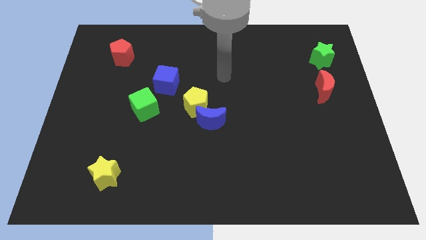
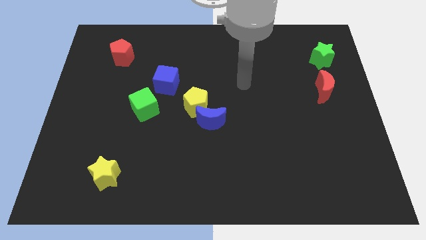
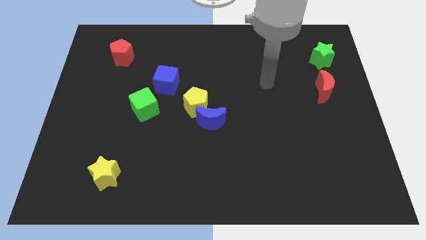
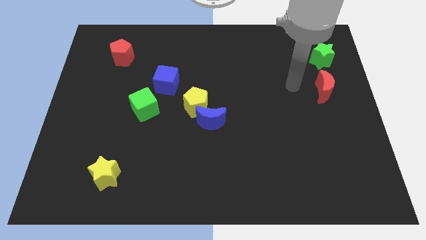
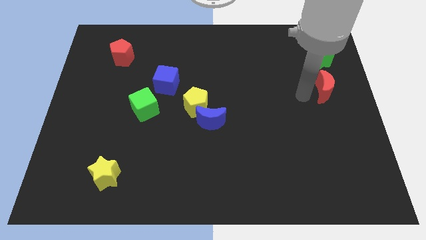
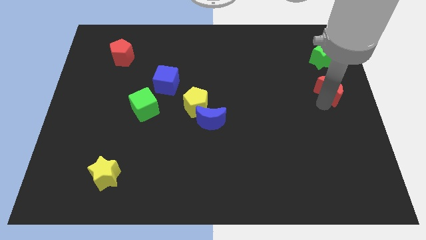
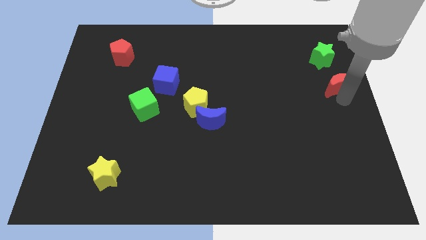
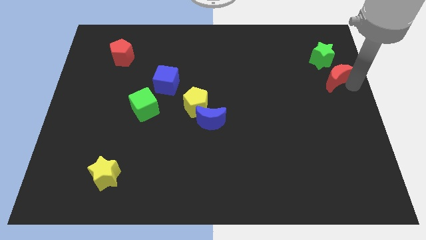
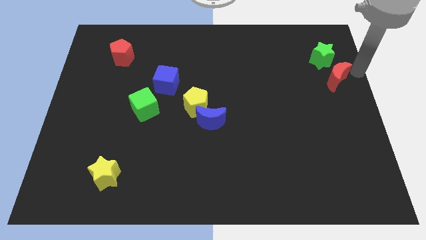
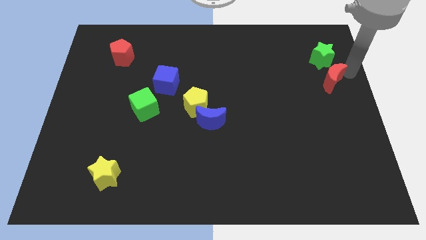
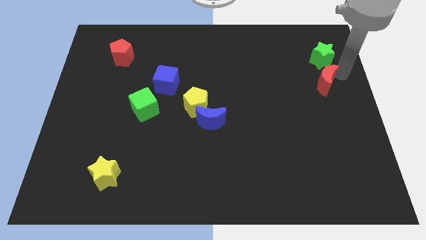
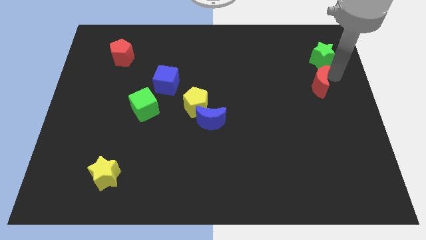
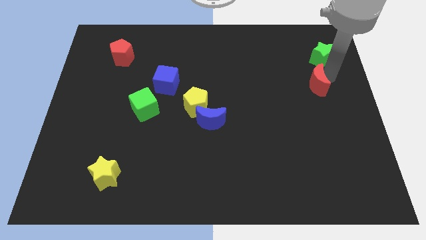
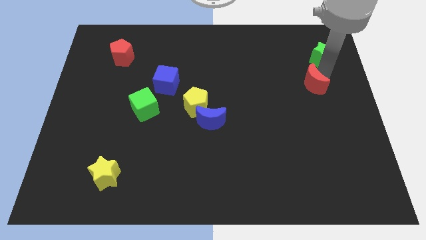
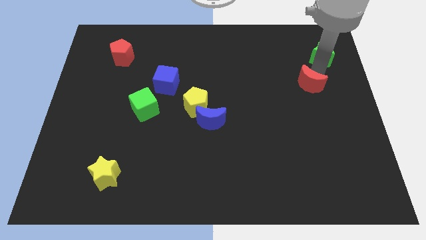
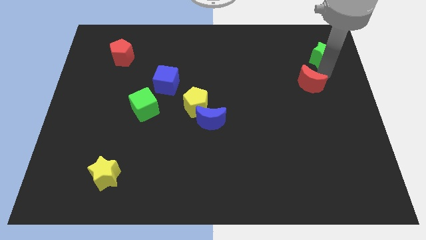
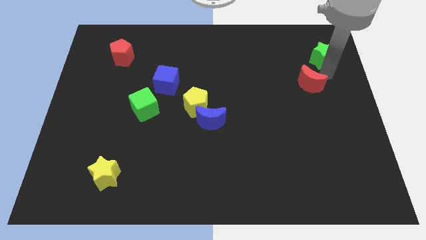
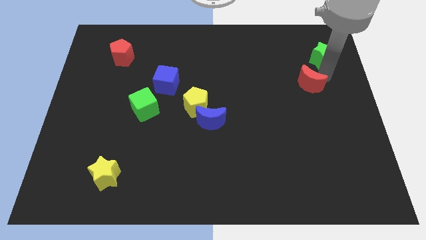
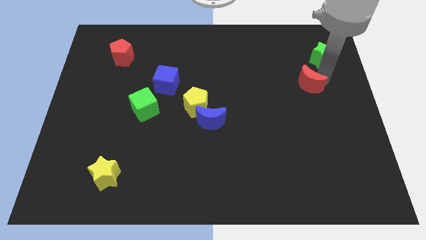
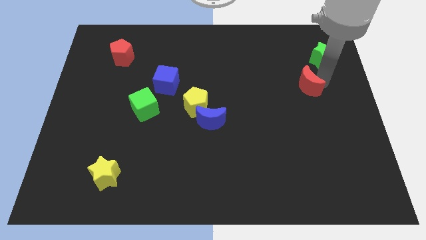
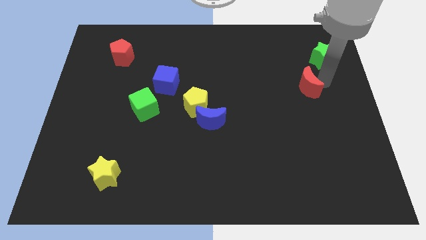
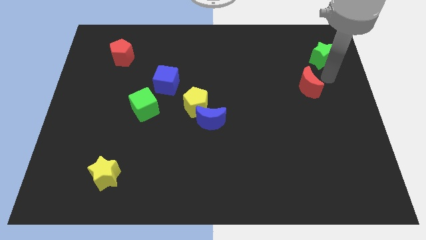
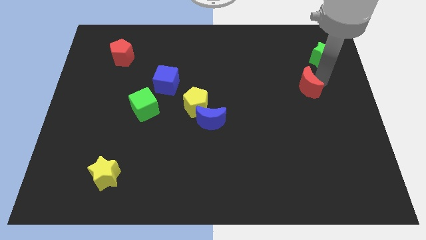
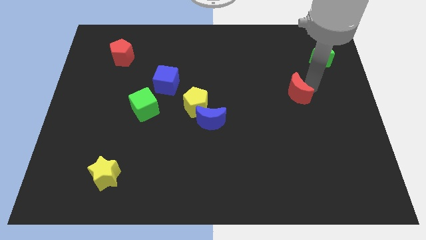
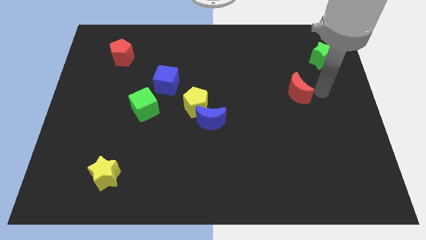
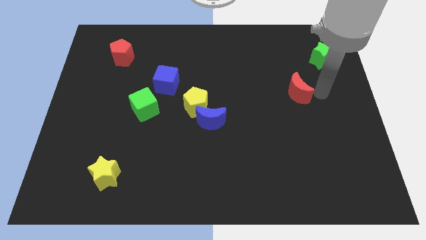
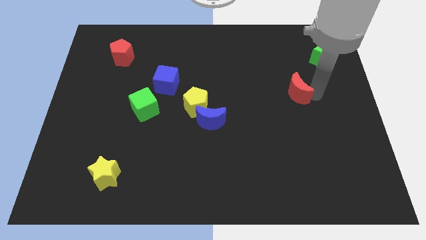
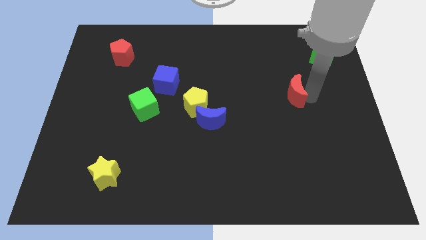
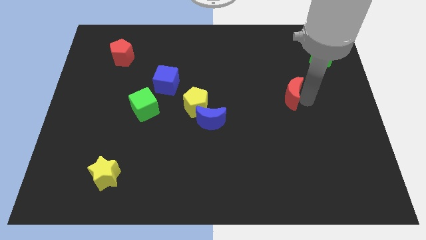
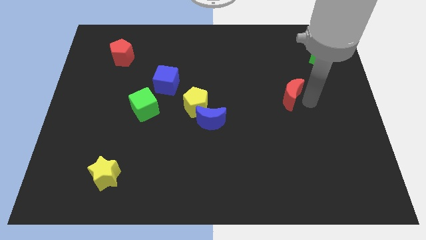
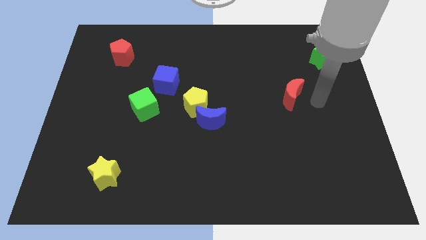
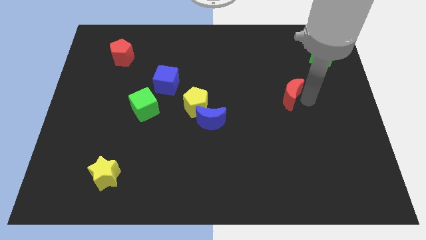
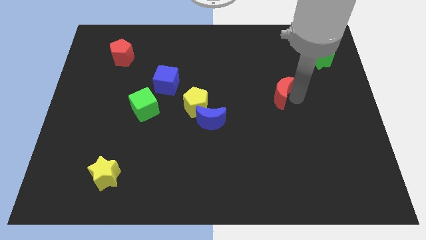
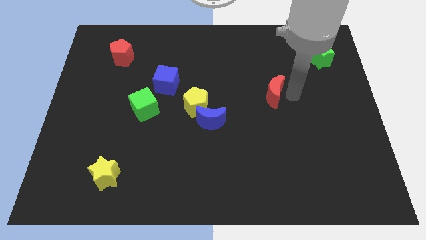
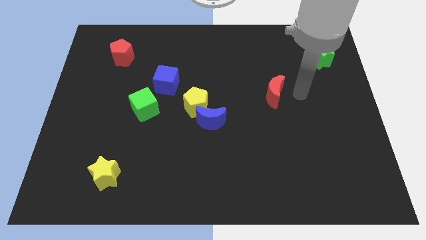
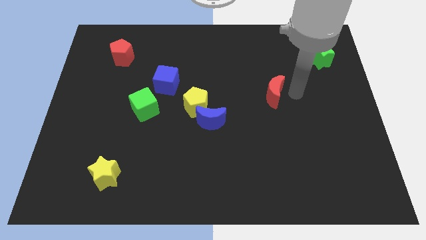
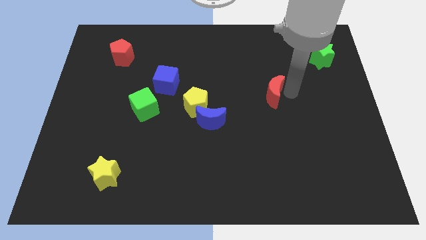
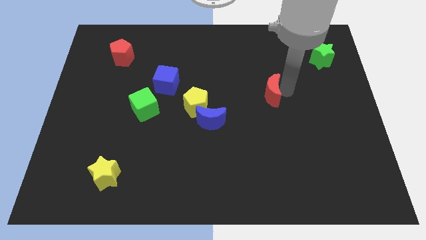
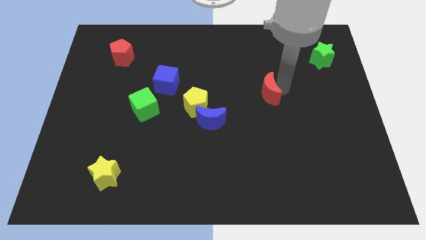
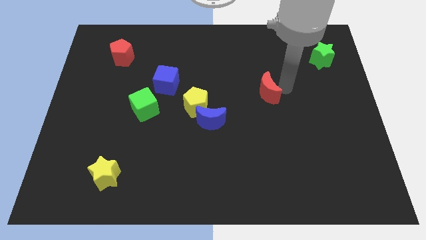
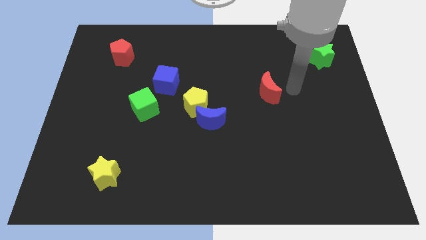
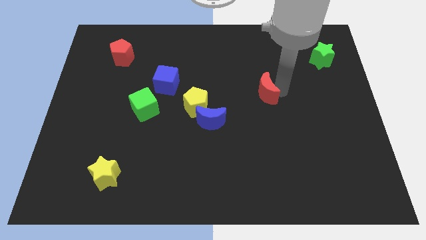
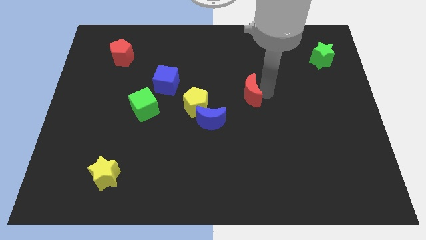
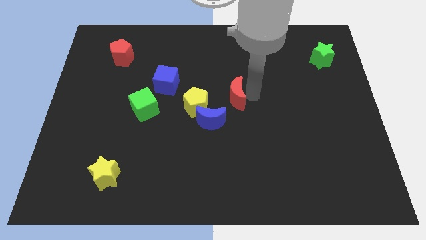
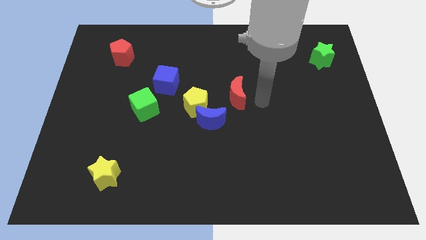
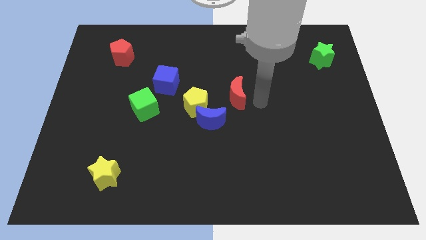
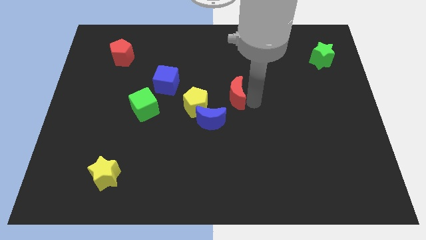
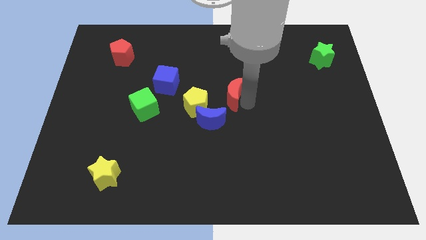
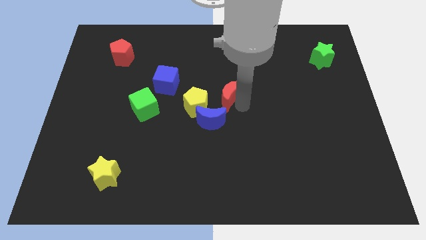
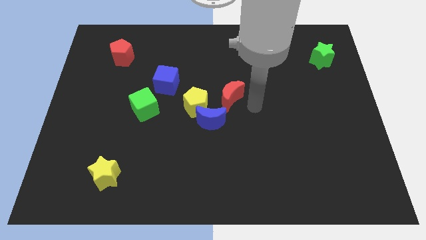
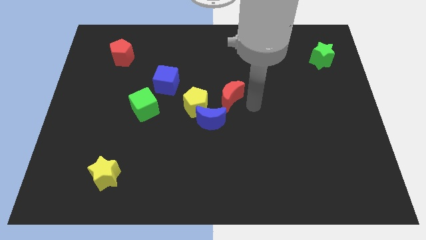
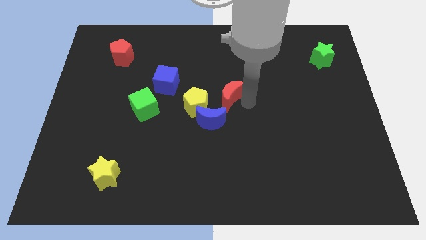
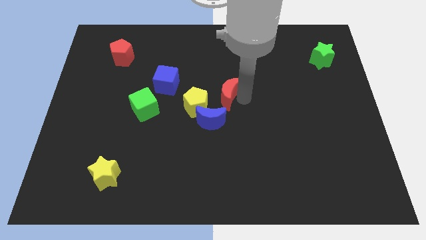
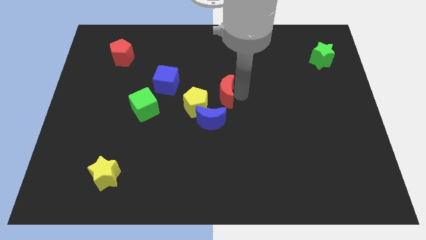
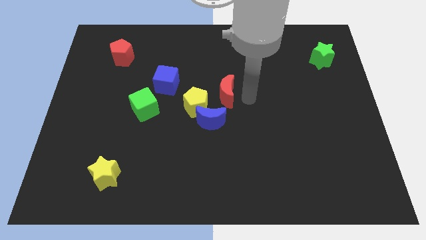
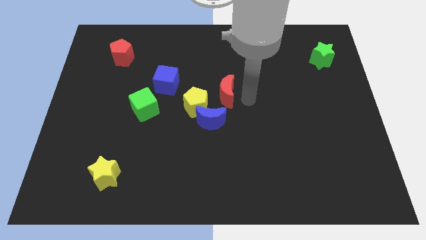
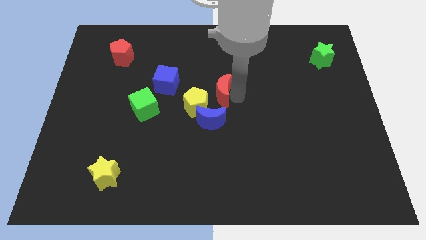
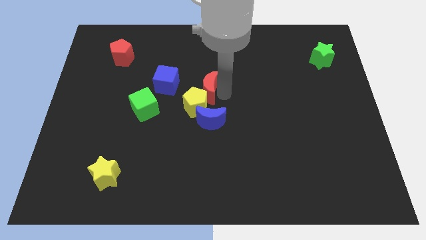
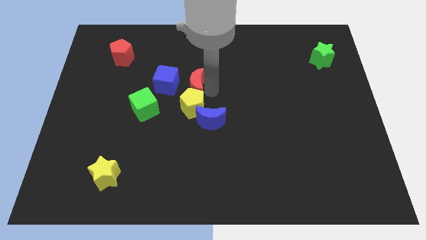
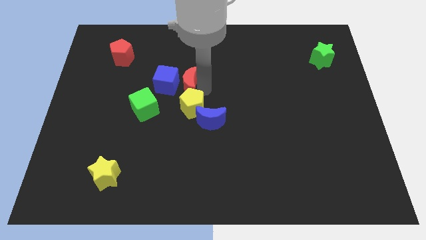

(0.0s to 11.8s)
push the red moon close to the blue cube

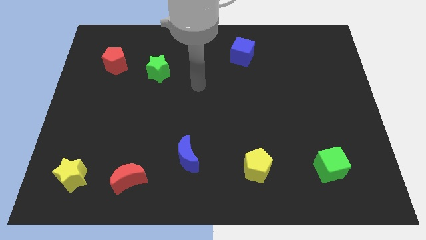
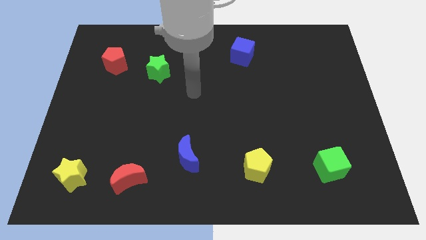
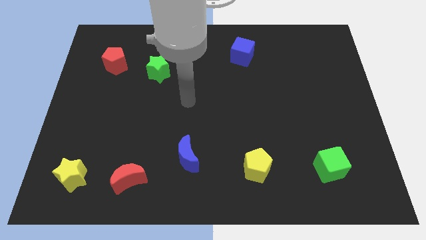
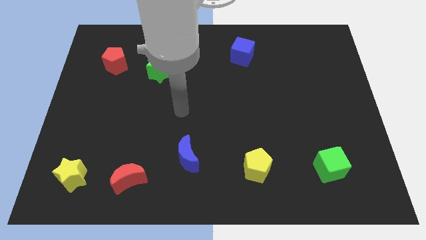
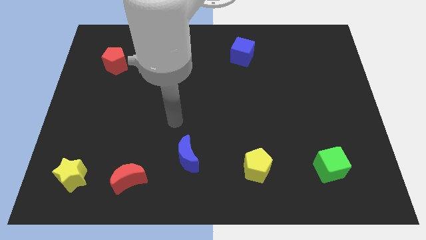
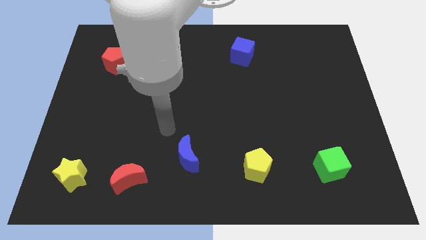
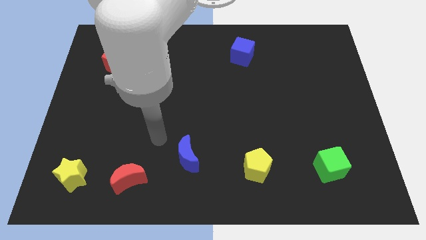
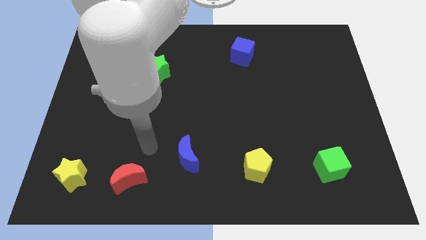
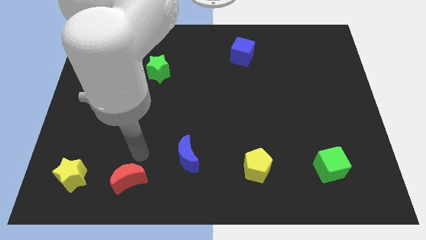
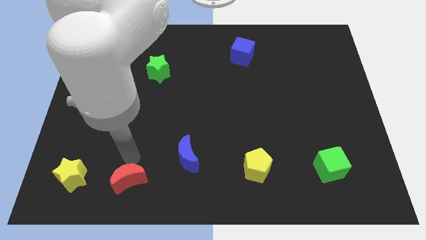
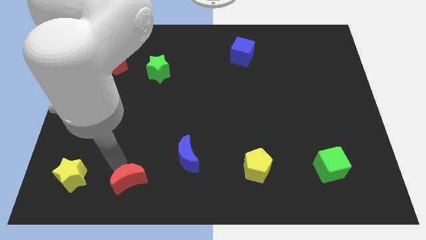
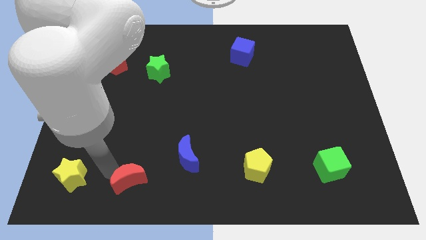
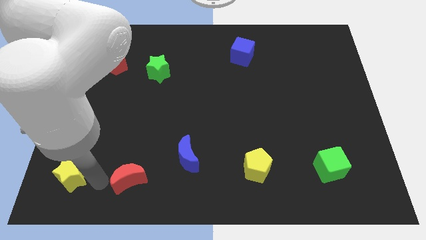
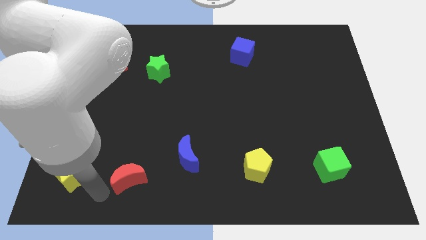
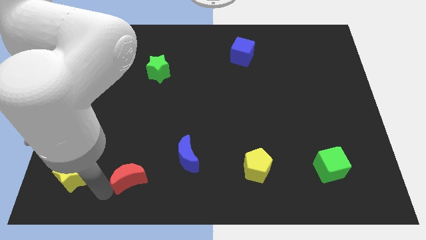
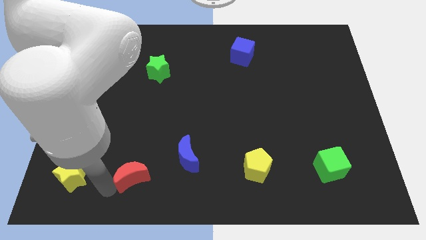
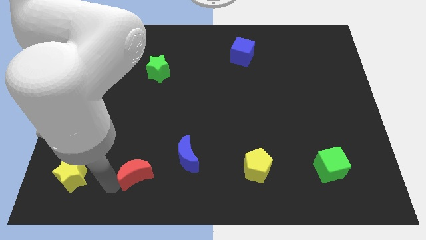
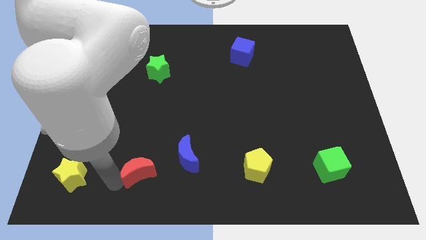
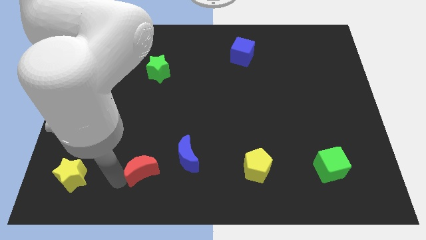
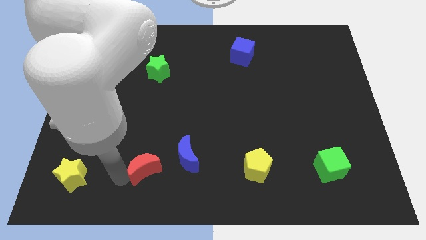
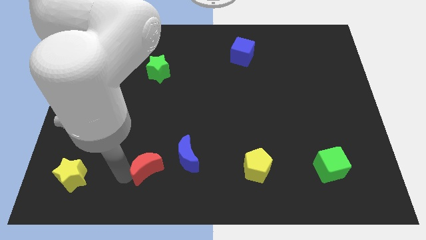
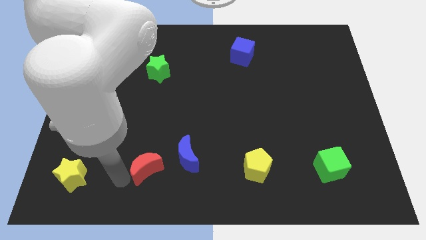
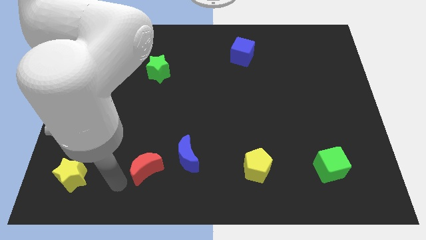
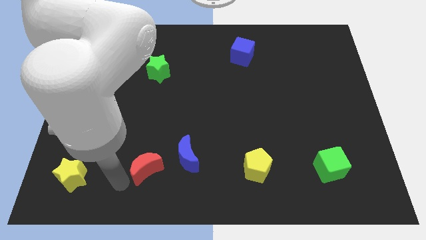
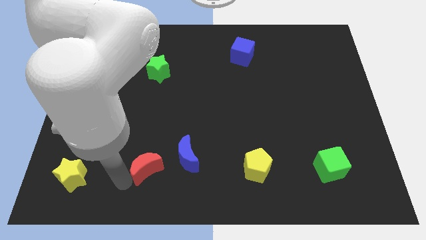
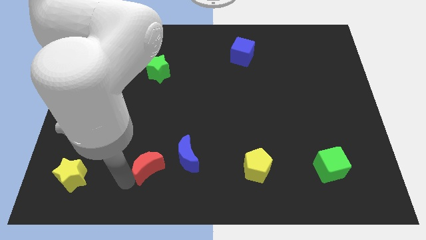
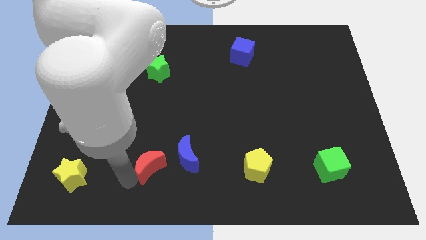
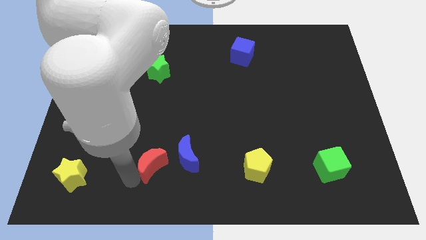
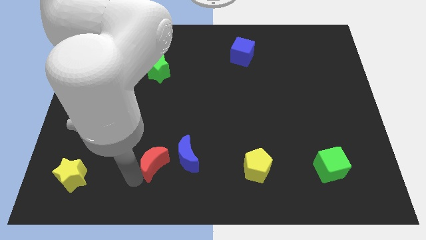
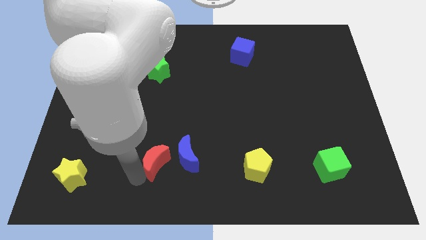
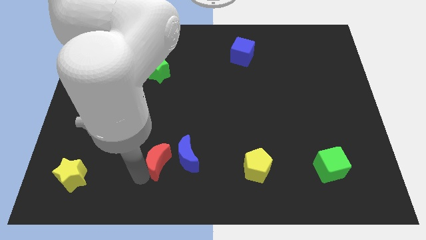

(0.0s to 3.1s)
put the red moon towards the blue moon
